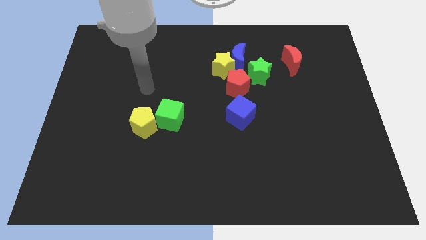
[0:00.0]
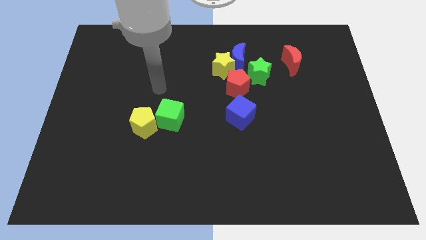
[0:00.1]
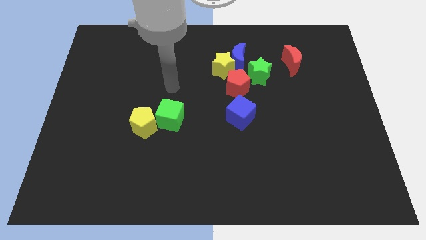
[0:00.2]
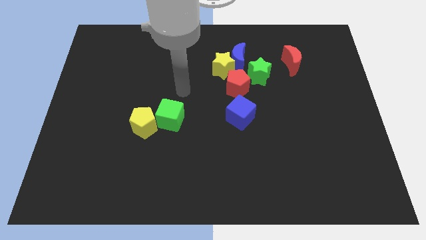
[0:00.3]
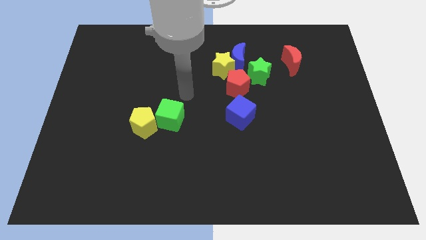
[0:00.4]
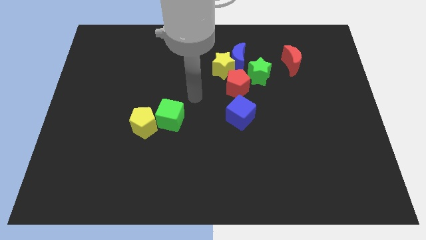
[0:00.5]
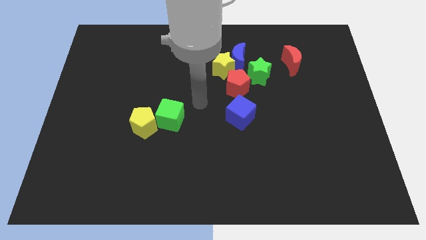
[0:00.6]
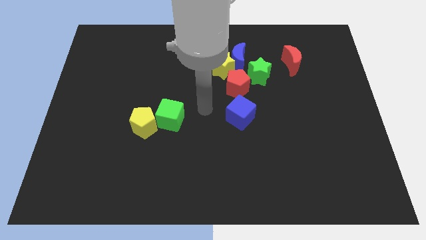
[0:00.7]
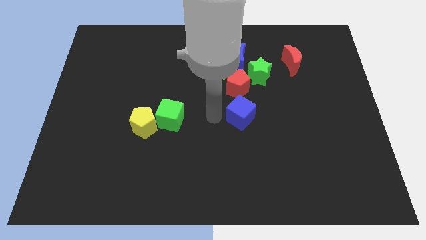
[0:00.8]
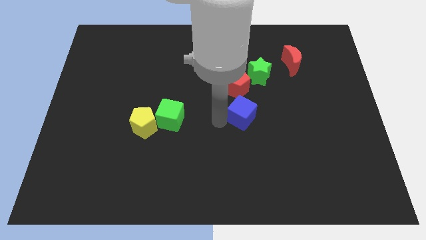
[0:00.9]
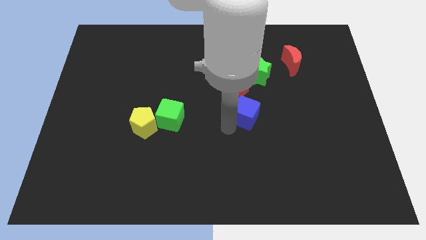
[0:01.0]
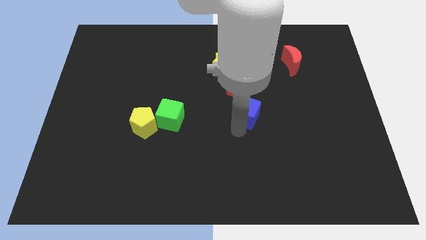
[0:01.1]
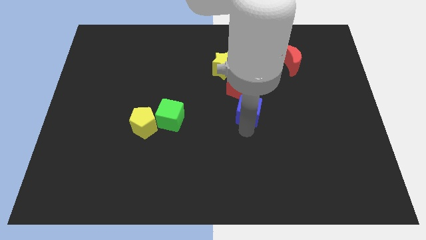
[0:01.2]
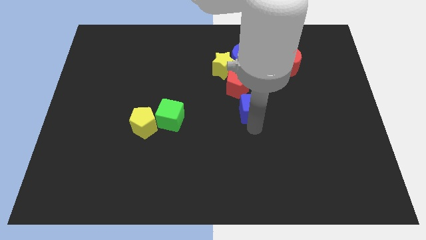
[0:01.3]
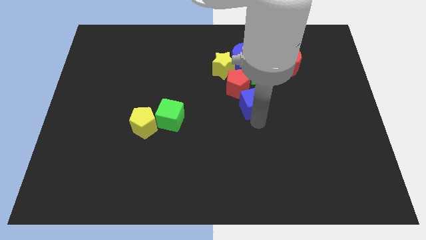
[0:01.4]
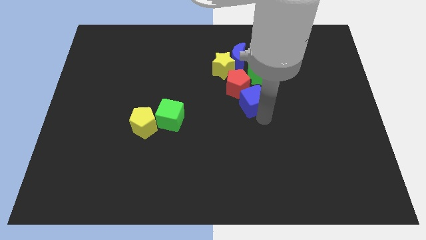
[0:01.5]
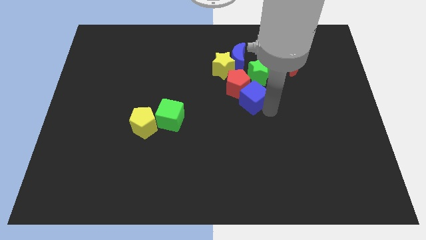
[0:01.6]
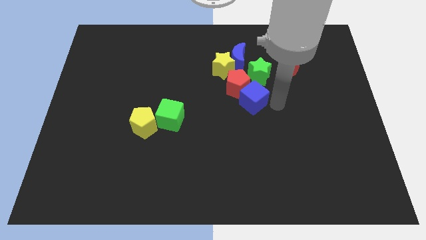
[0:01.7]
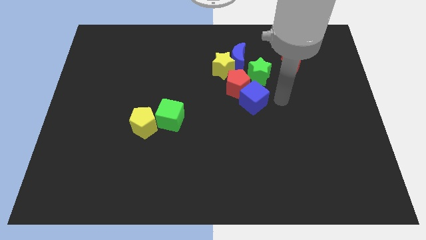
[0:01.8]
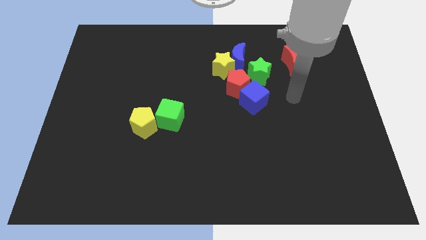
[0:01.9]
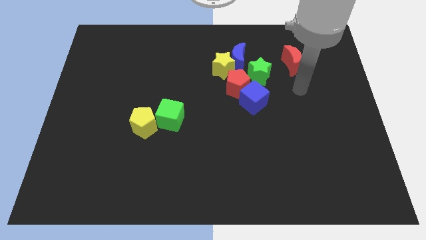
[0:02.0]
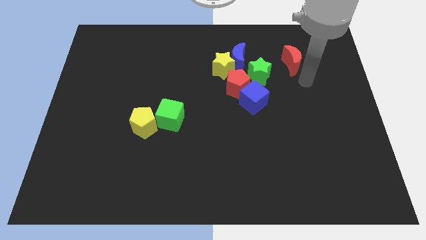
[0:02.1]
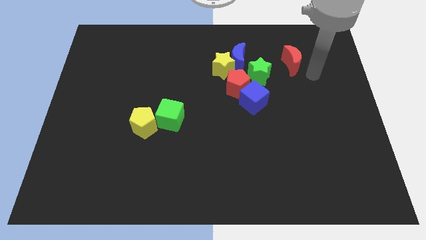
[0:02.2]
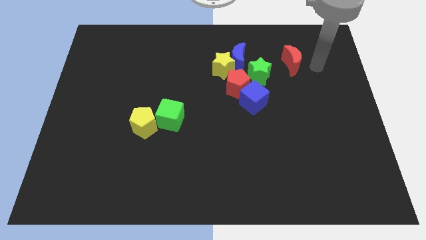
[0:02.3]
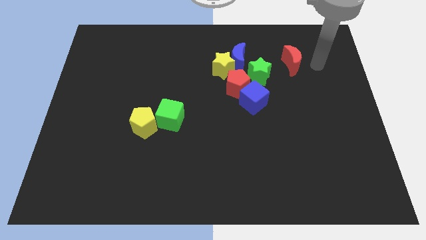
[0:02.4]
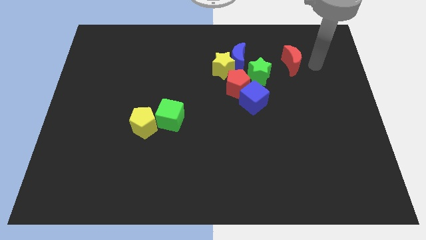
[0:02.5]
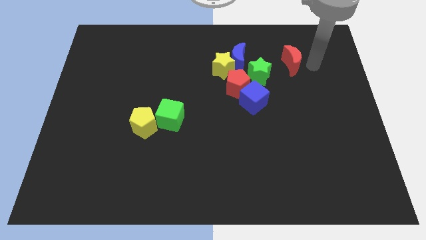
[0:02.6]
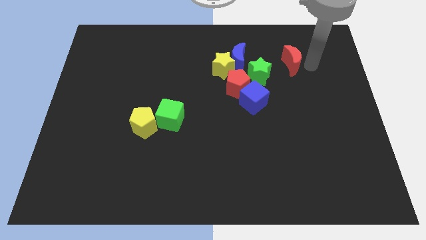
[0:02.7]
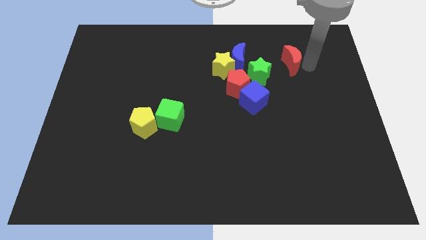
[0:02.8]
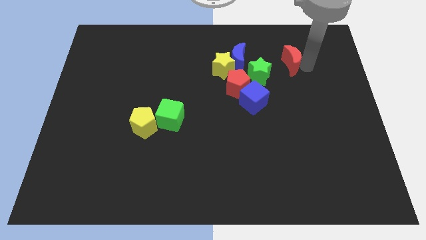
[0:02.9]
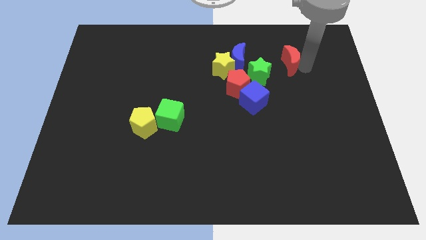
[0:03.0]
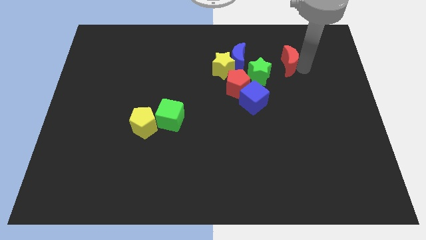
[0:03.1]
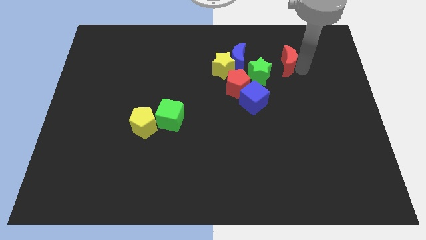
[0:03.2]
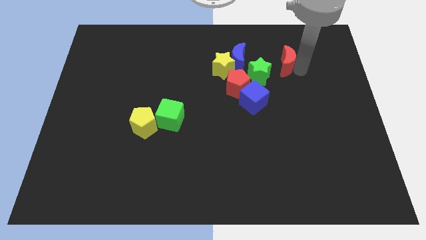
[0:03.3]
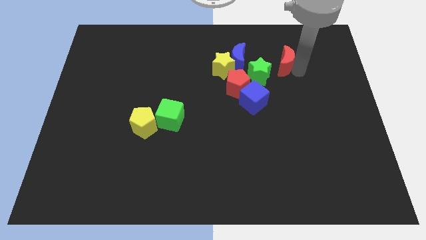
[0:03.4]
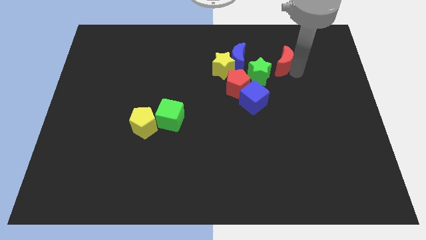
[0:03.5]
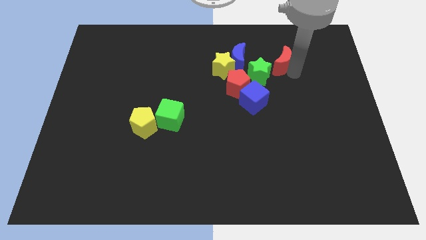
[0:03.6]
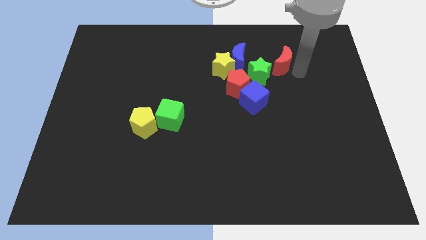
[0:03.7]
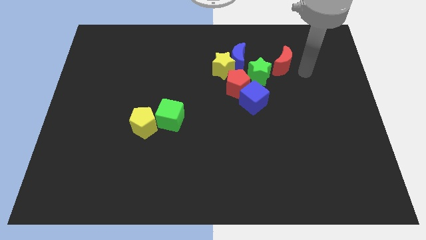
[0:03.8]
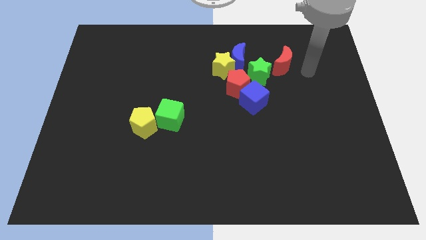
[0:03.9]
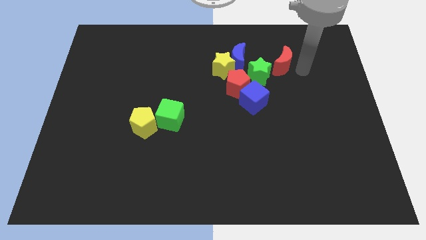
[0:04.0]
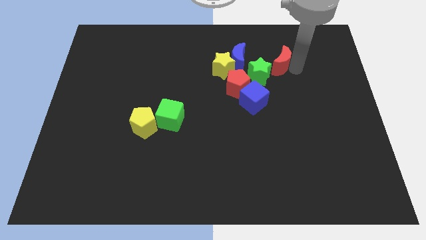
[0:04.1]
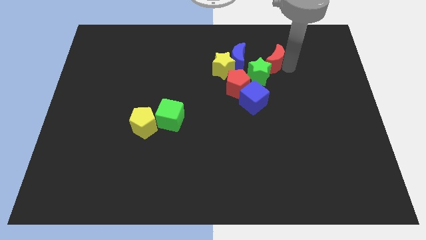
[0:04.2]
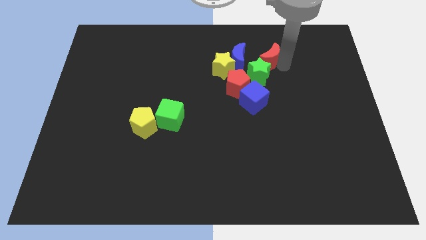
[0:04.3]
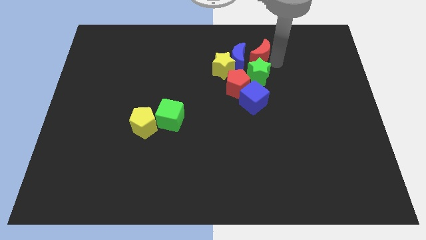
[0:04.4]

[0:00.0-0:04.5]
push the red moon next to the blue moon

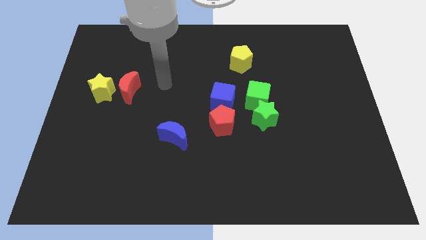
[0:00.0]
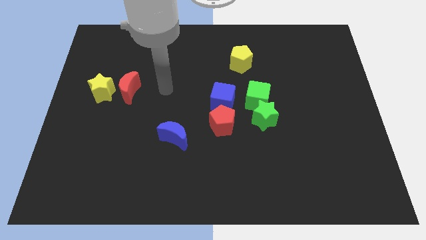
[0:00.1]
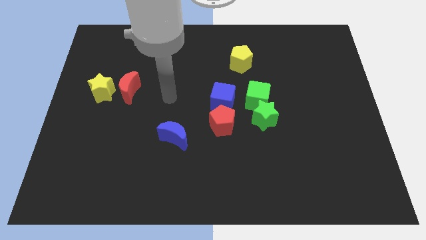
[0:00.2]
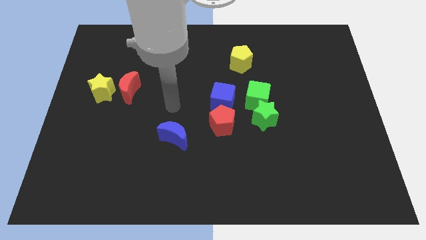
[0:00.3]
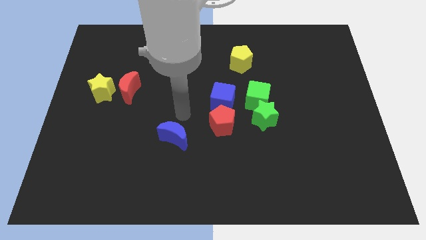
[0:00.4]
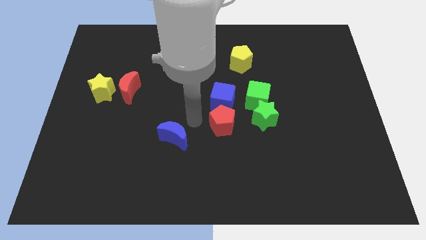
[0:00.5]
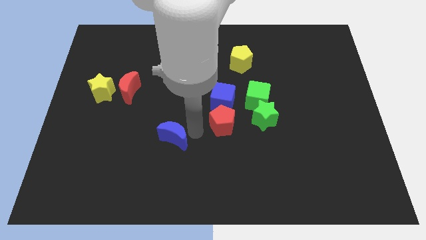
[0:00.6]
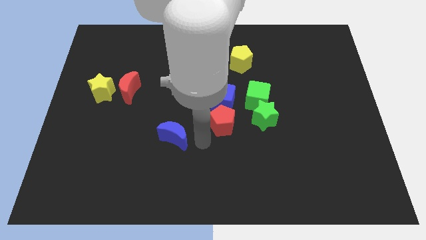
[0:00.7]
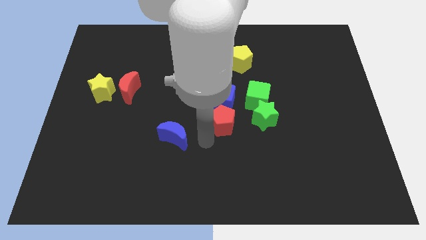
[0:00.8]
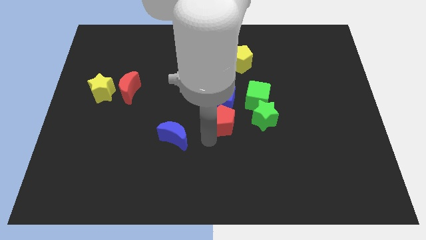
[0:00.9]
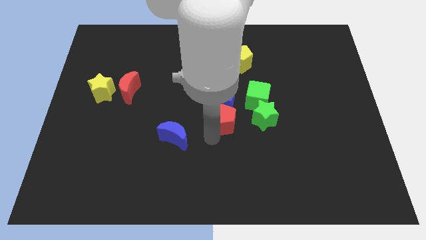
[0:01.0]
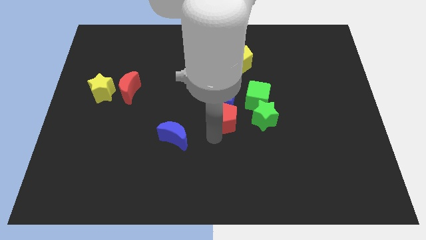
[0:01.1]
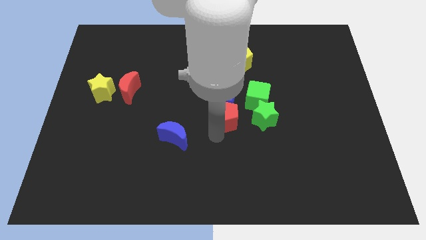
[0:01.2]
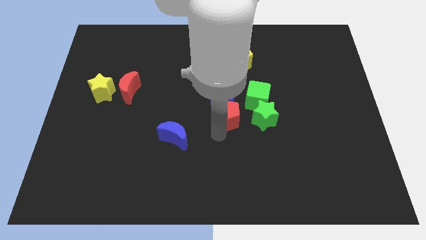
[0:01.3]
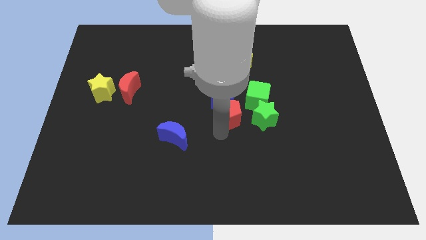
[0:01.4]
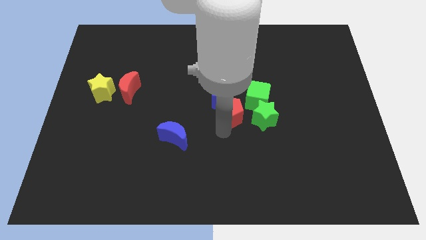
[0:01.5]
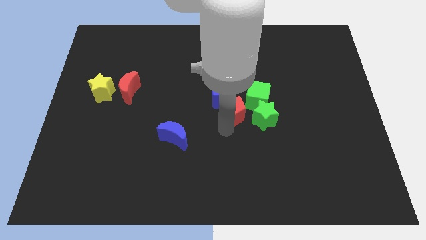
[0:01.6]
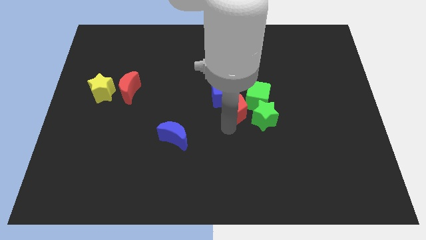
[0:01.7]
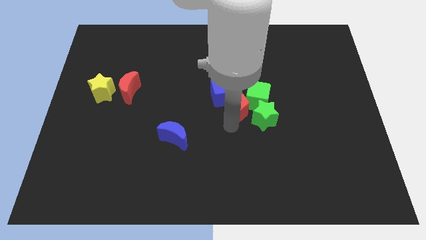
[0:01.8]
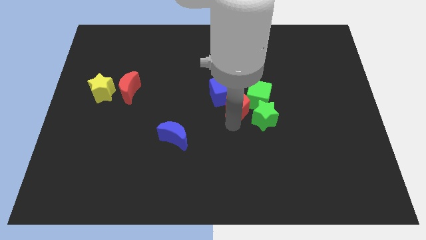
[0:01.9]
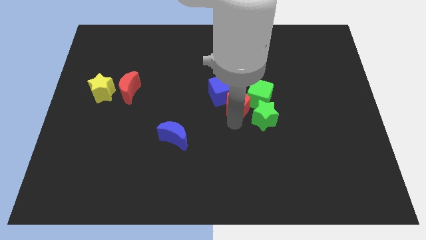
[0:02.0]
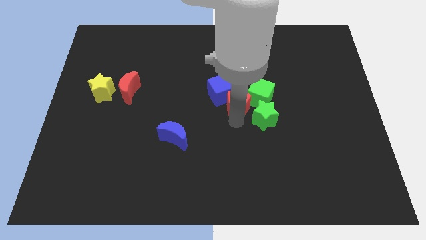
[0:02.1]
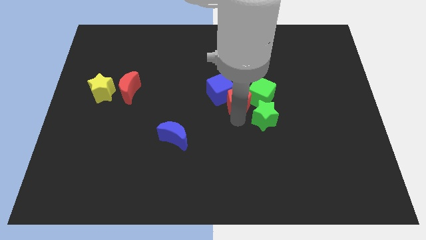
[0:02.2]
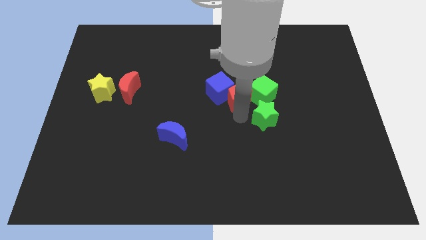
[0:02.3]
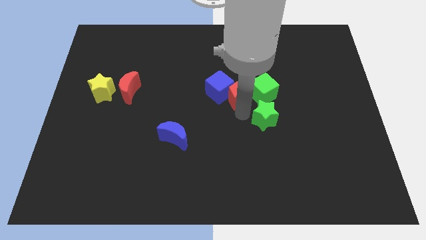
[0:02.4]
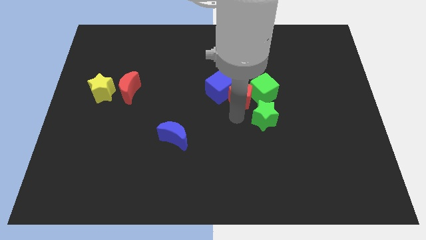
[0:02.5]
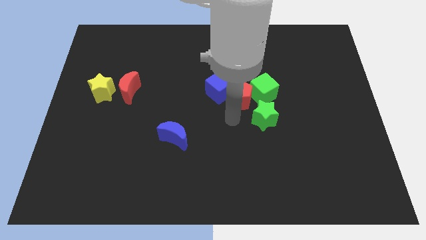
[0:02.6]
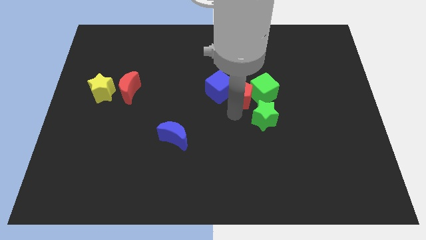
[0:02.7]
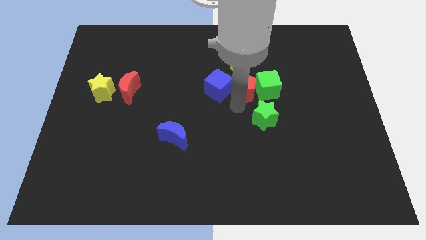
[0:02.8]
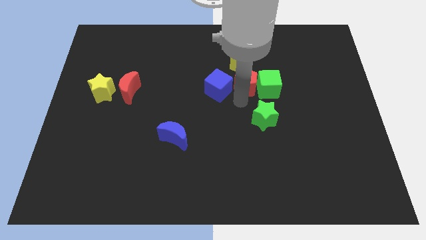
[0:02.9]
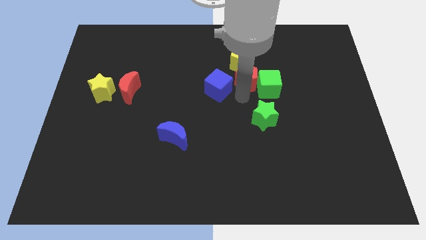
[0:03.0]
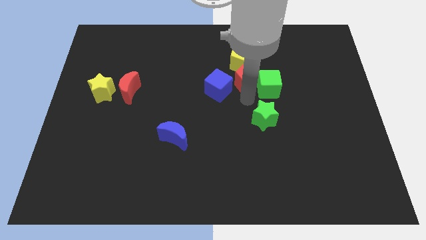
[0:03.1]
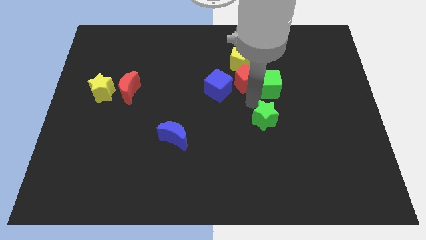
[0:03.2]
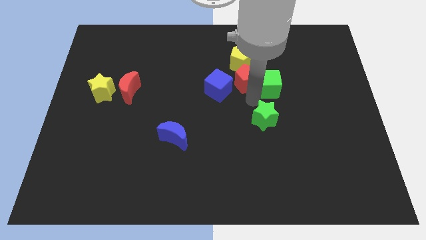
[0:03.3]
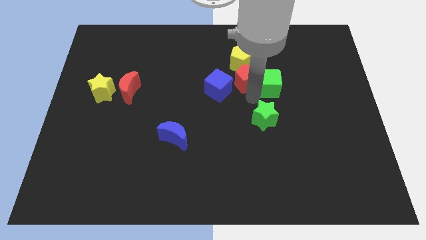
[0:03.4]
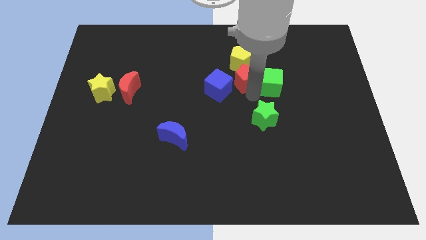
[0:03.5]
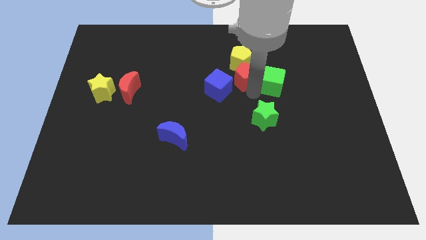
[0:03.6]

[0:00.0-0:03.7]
push the red pentagon to the yellow pentagon
